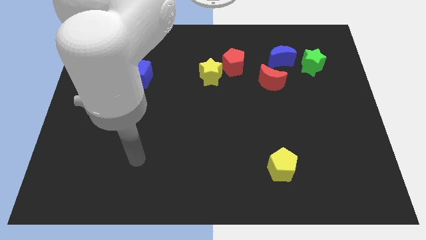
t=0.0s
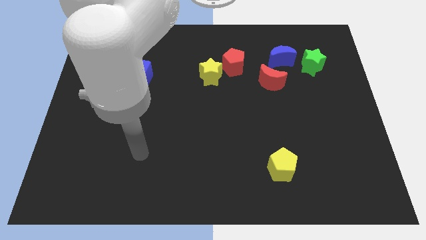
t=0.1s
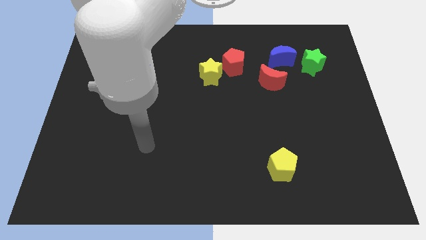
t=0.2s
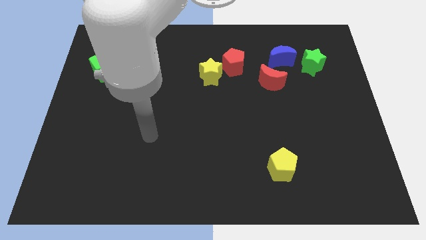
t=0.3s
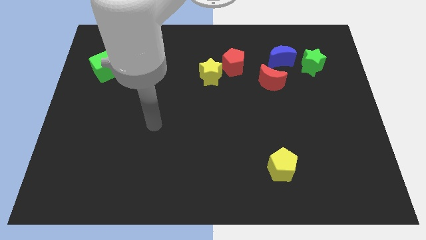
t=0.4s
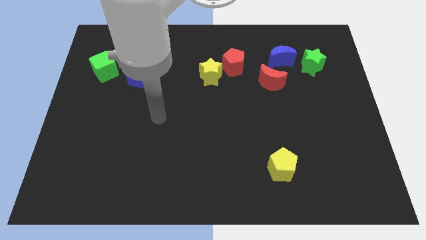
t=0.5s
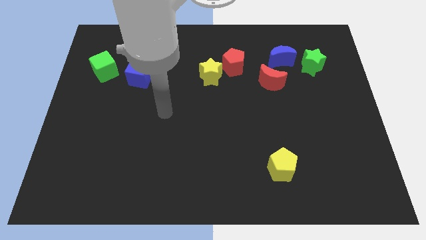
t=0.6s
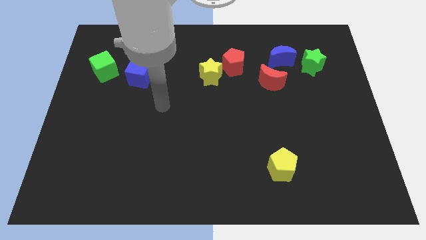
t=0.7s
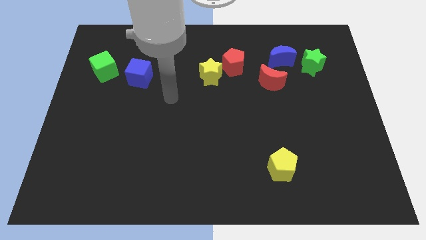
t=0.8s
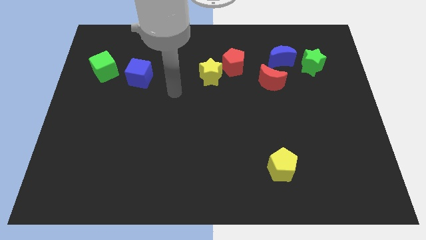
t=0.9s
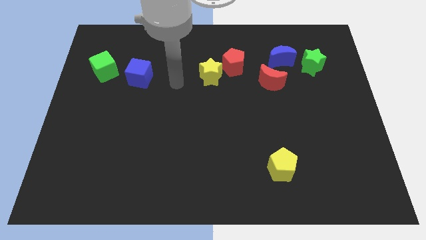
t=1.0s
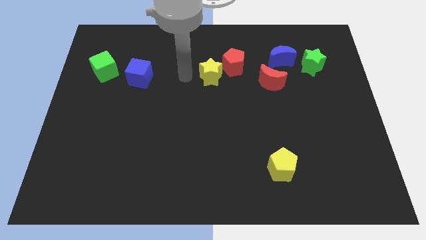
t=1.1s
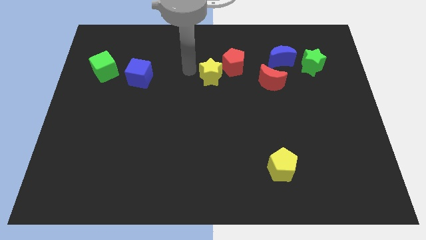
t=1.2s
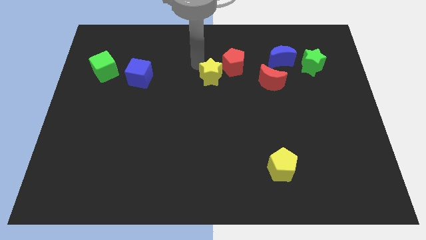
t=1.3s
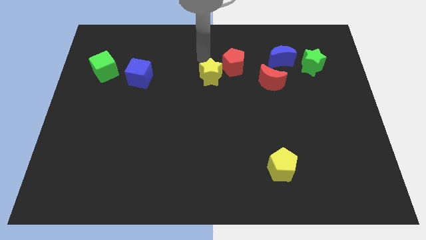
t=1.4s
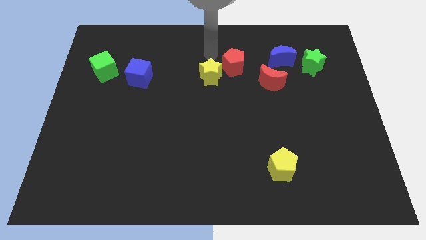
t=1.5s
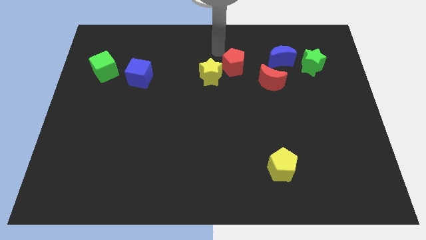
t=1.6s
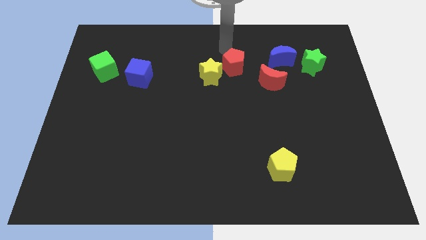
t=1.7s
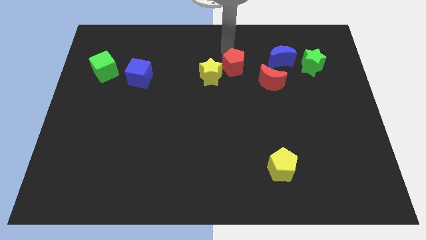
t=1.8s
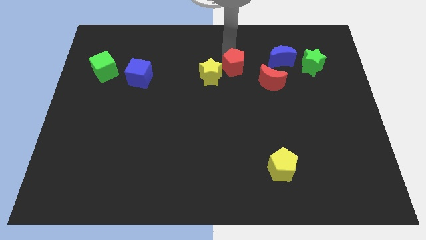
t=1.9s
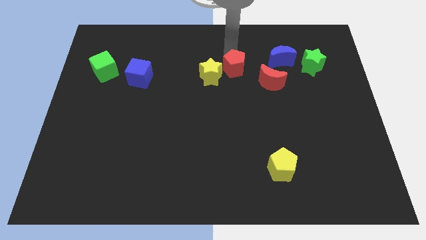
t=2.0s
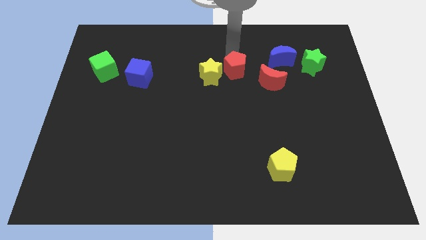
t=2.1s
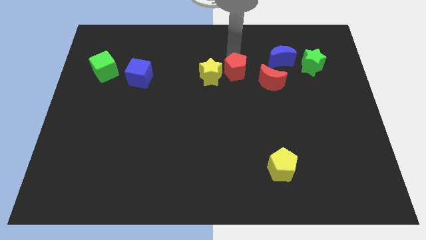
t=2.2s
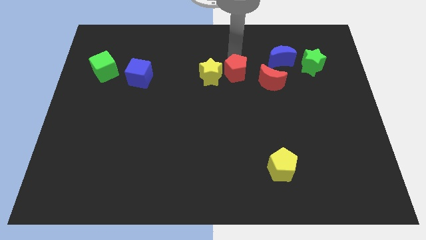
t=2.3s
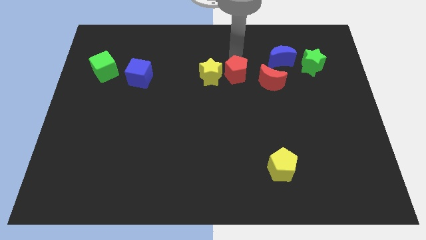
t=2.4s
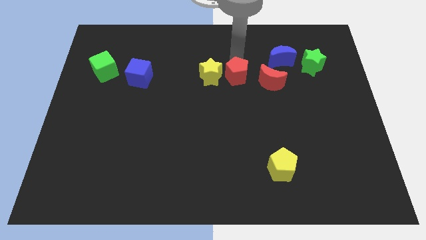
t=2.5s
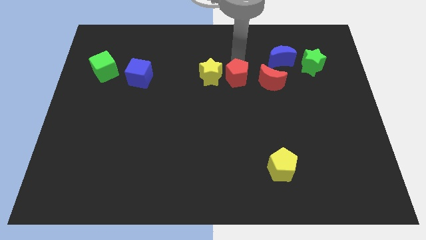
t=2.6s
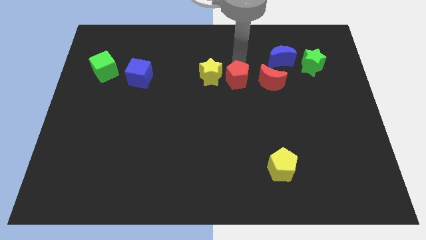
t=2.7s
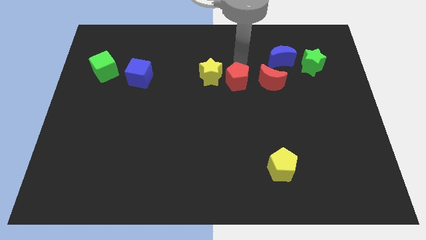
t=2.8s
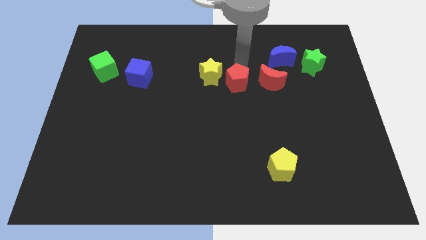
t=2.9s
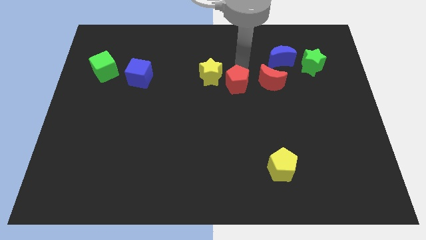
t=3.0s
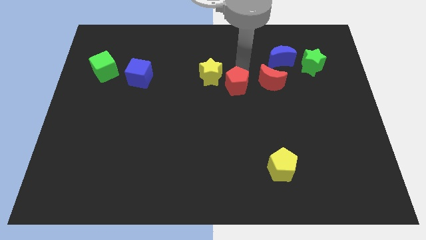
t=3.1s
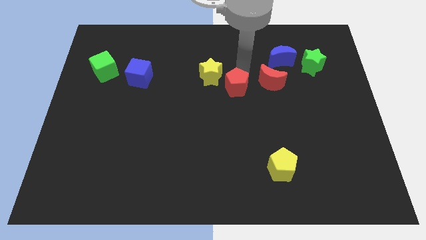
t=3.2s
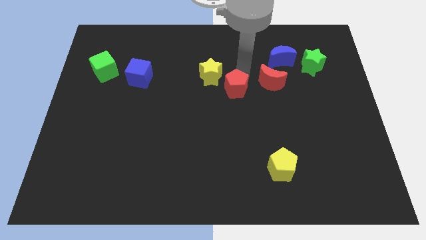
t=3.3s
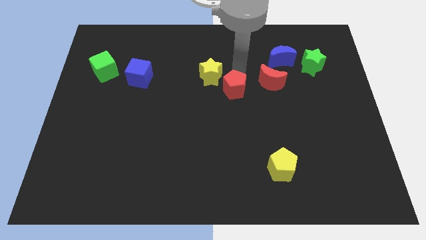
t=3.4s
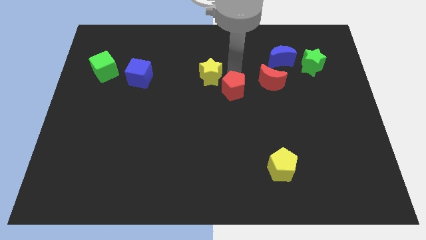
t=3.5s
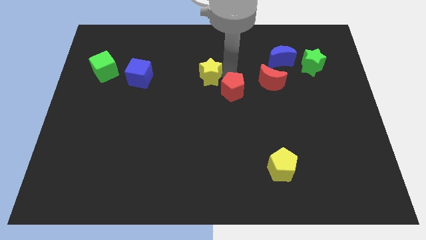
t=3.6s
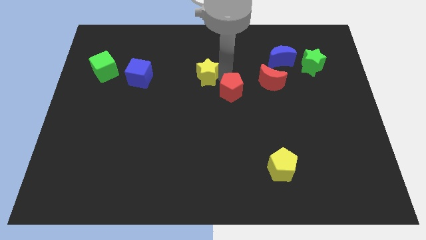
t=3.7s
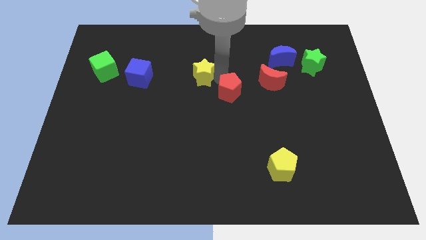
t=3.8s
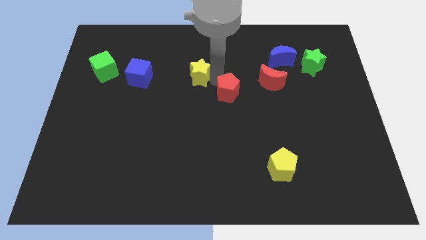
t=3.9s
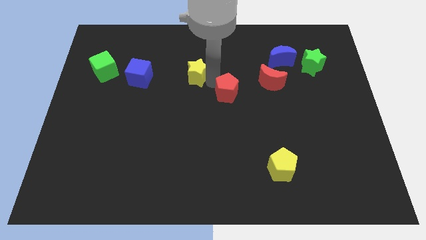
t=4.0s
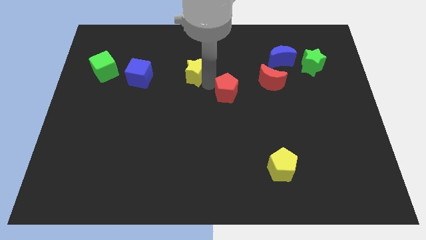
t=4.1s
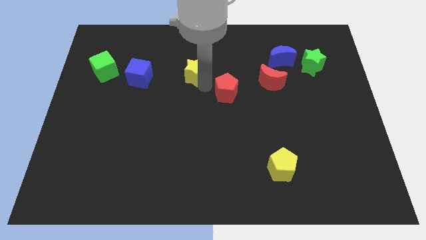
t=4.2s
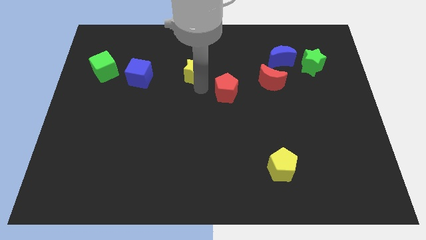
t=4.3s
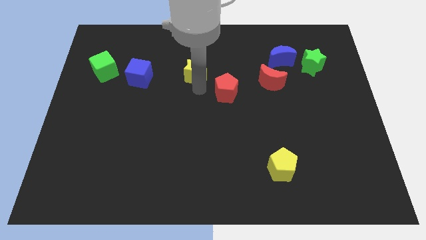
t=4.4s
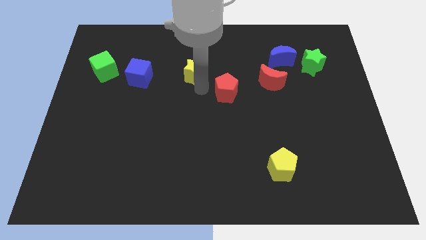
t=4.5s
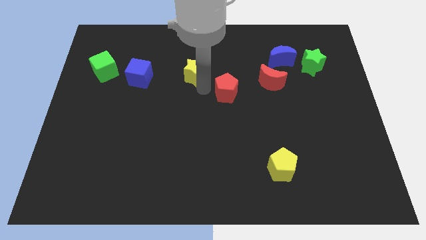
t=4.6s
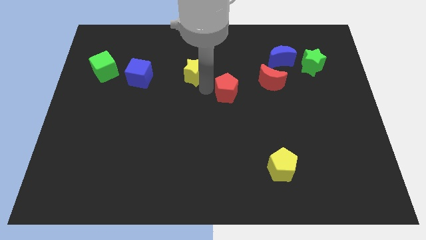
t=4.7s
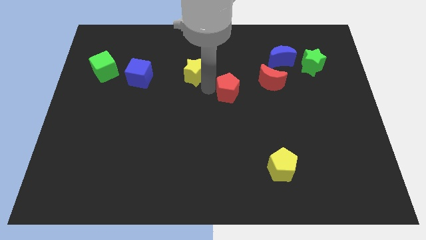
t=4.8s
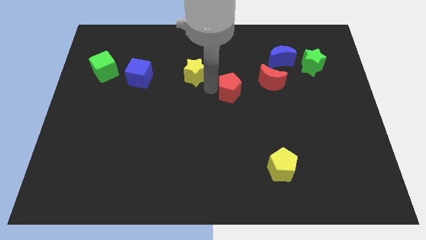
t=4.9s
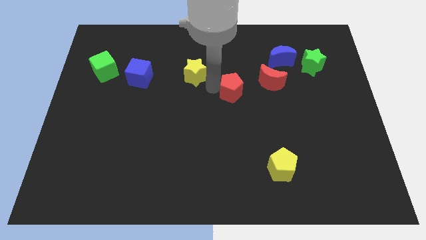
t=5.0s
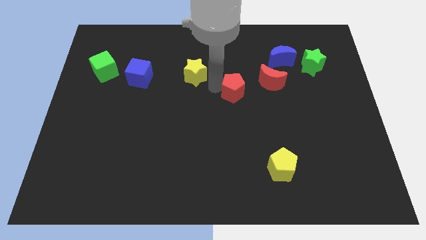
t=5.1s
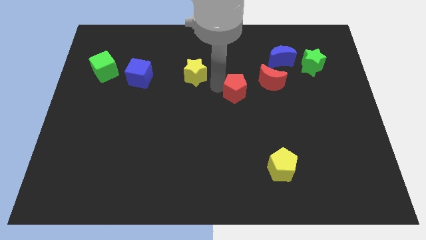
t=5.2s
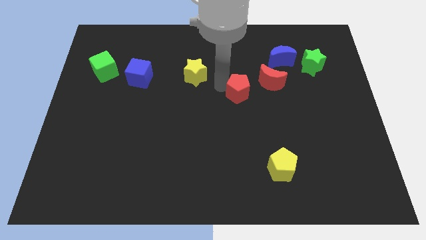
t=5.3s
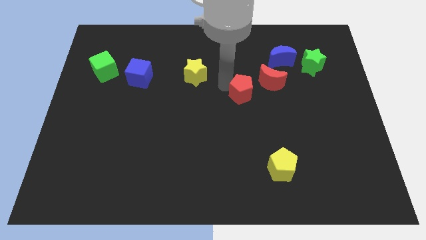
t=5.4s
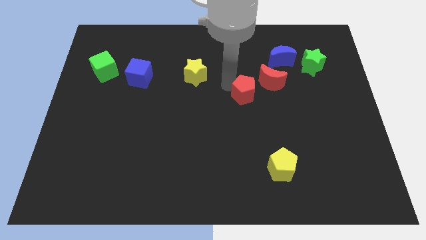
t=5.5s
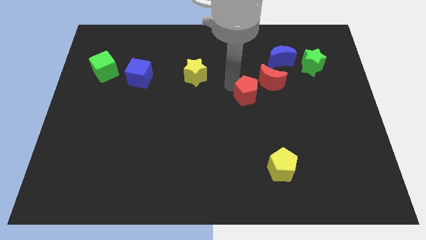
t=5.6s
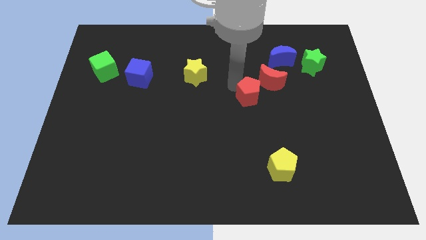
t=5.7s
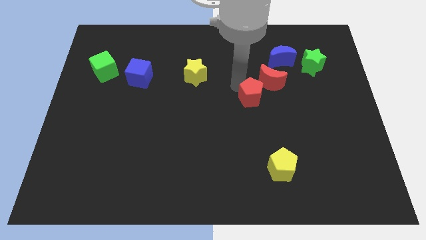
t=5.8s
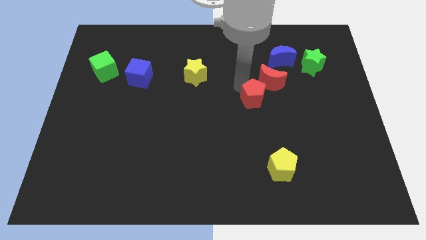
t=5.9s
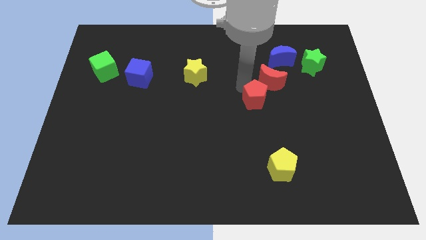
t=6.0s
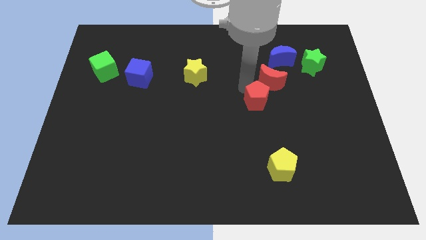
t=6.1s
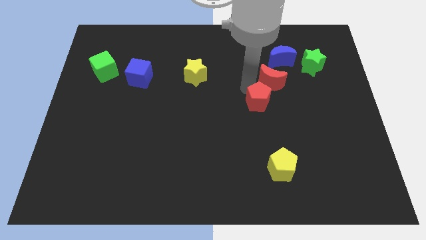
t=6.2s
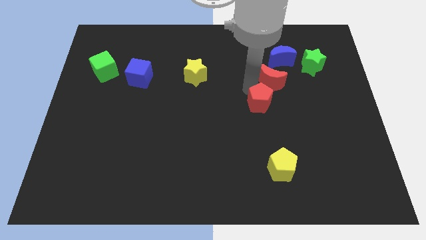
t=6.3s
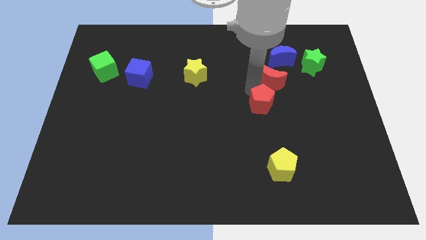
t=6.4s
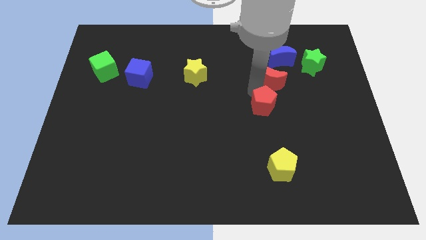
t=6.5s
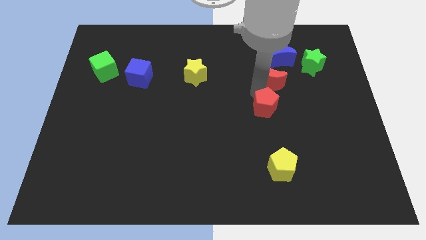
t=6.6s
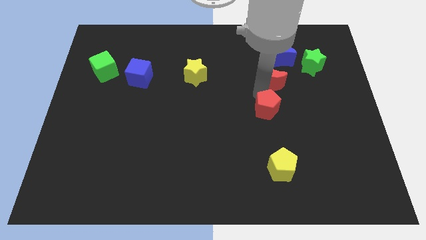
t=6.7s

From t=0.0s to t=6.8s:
move the red pentagon to the top of the yellow pentagon

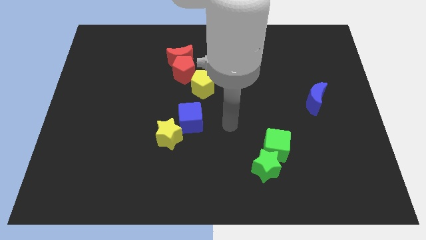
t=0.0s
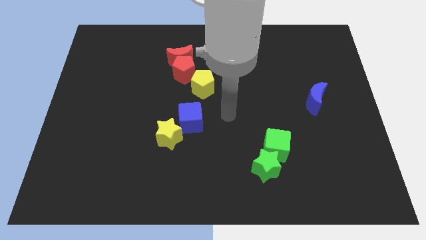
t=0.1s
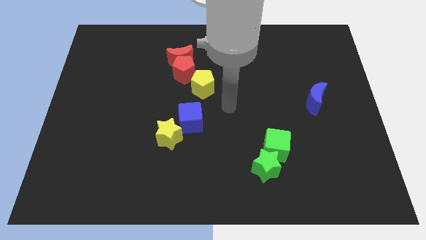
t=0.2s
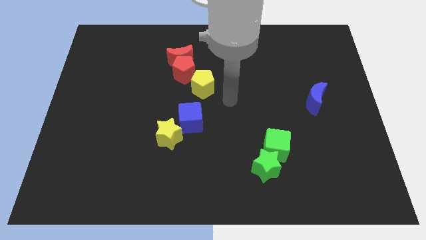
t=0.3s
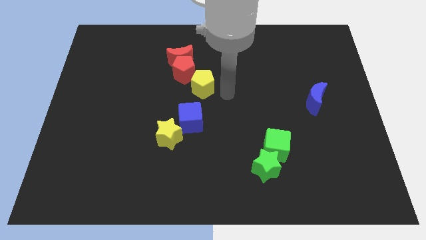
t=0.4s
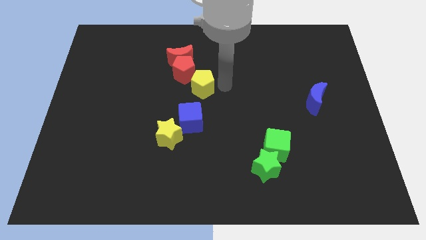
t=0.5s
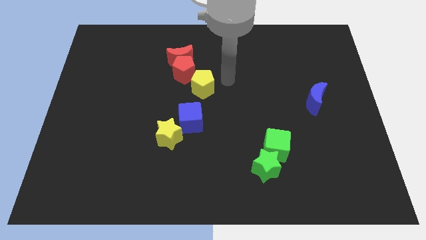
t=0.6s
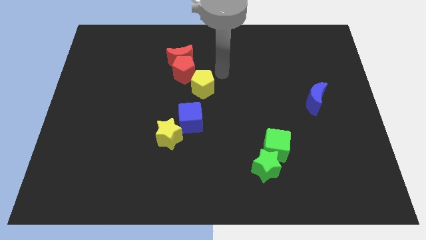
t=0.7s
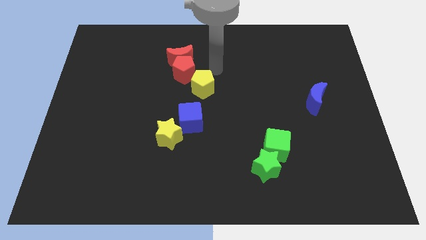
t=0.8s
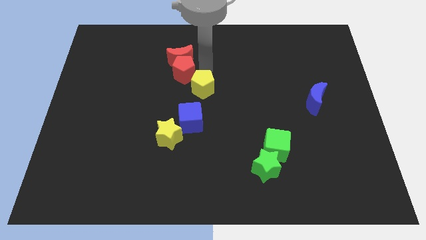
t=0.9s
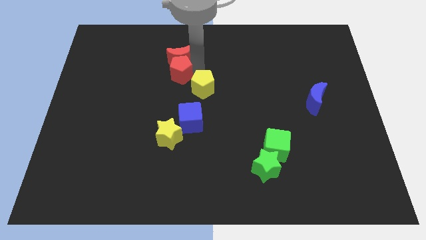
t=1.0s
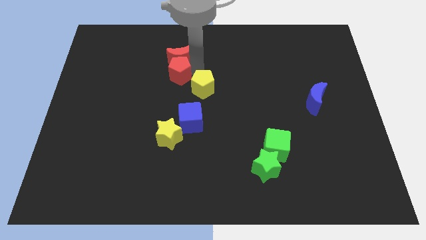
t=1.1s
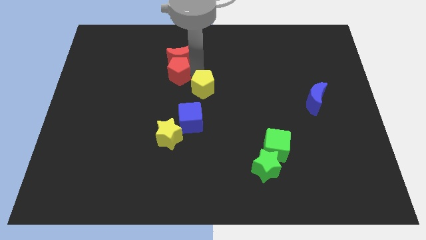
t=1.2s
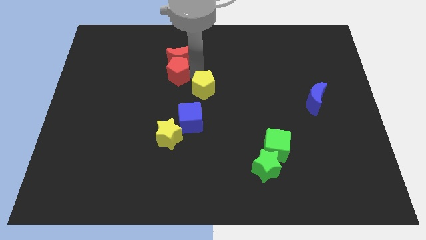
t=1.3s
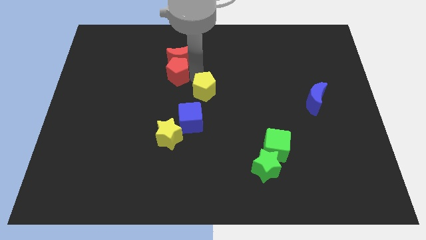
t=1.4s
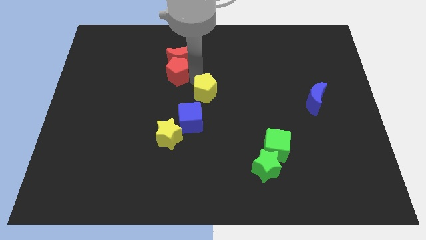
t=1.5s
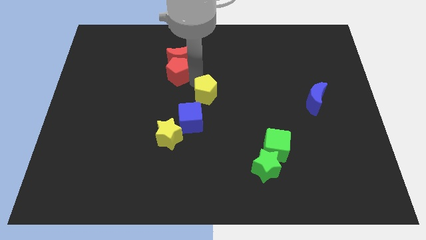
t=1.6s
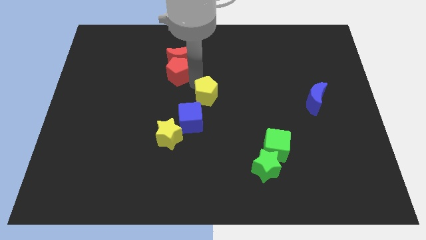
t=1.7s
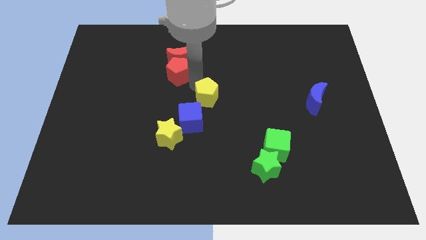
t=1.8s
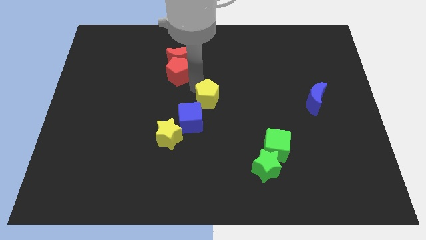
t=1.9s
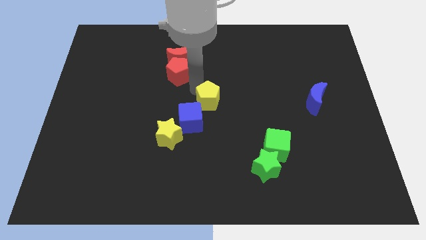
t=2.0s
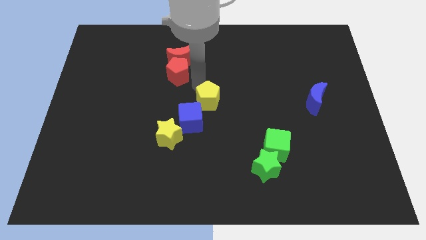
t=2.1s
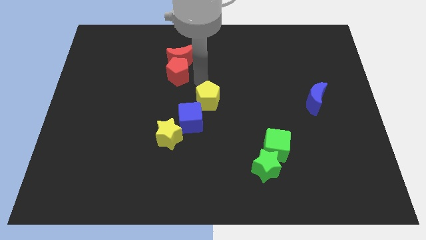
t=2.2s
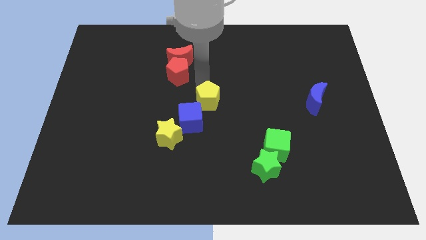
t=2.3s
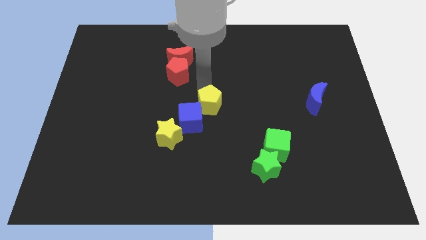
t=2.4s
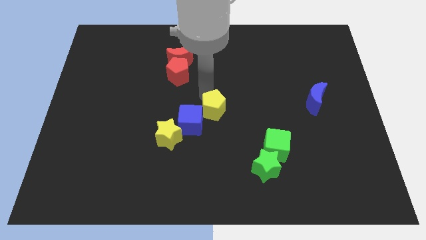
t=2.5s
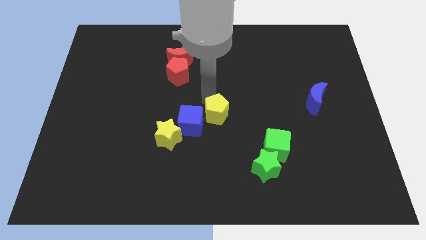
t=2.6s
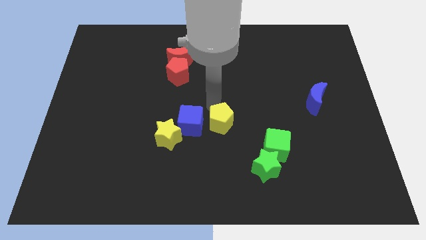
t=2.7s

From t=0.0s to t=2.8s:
slide the yellow pentagon diagonally down and to the right of the blue cube
